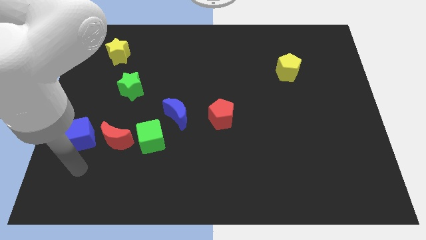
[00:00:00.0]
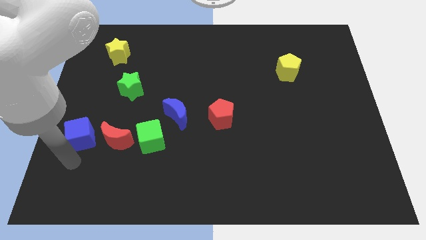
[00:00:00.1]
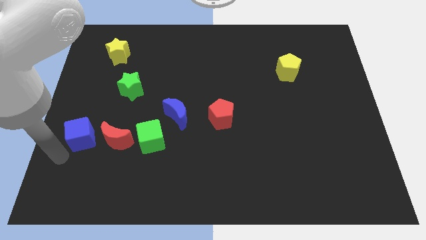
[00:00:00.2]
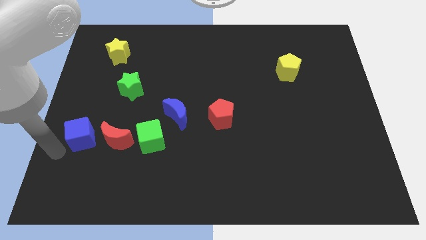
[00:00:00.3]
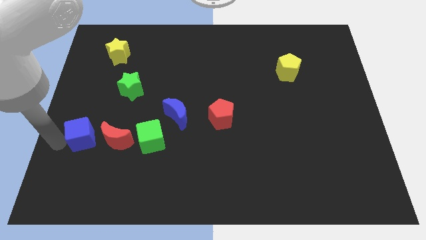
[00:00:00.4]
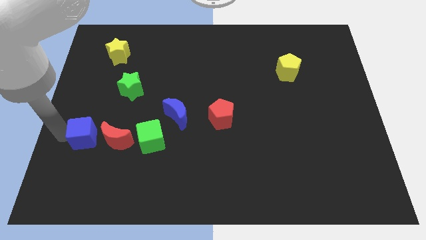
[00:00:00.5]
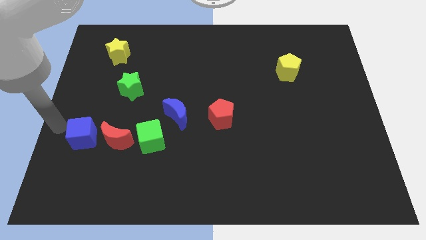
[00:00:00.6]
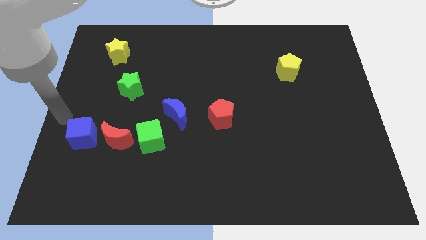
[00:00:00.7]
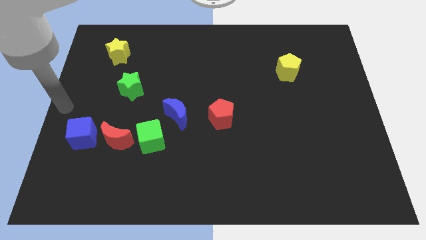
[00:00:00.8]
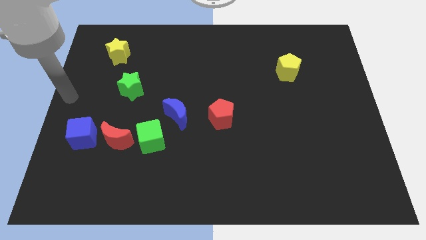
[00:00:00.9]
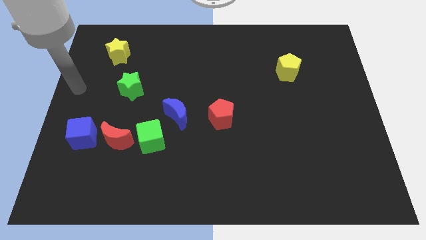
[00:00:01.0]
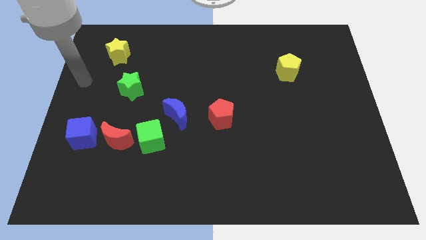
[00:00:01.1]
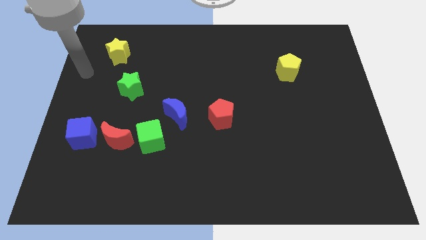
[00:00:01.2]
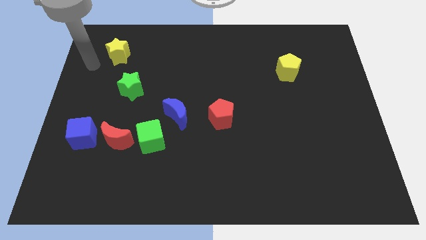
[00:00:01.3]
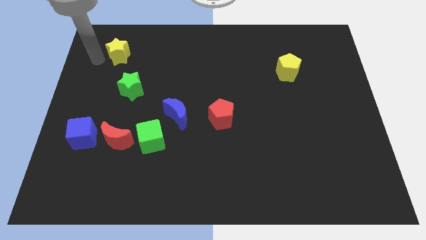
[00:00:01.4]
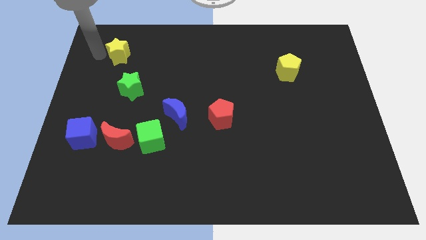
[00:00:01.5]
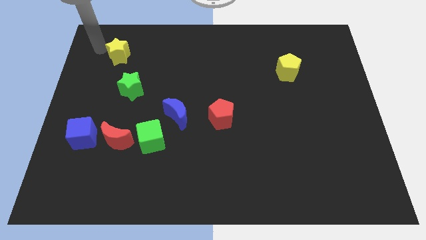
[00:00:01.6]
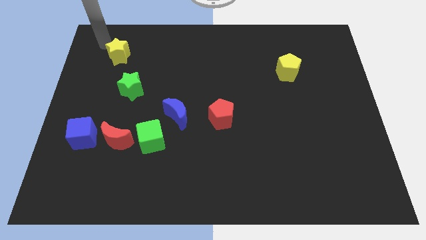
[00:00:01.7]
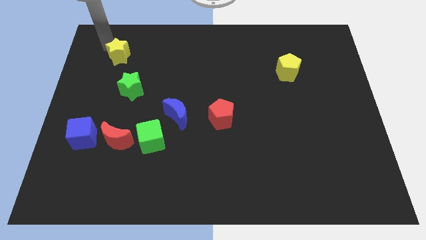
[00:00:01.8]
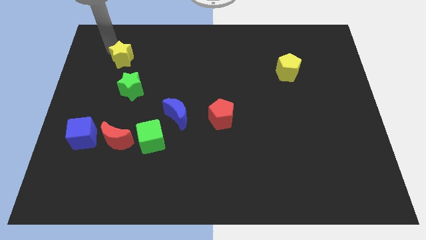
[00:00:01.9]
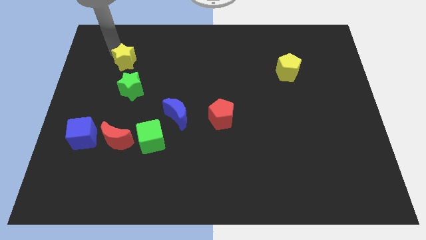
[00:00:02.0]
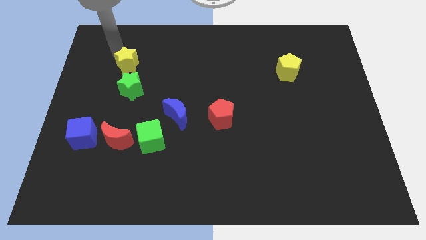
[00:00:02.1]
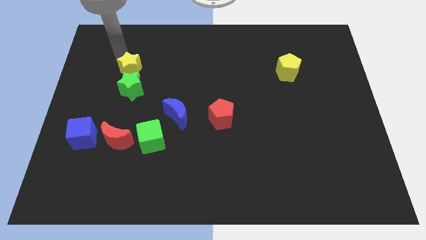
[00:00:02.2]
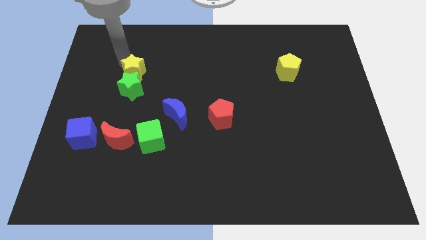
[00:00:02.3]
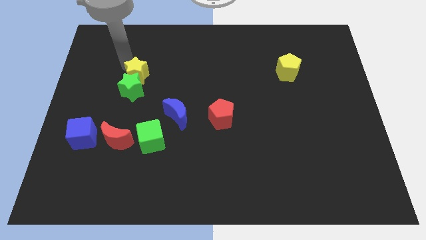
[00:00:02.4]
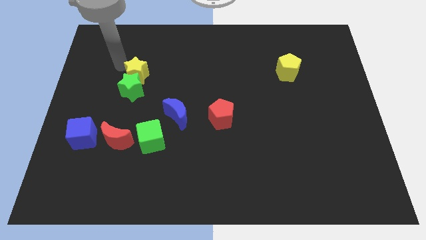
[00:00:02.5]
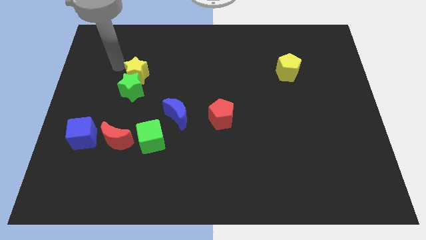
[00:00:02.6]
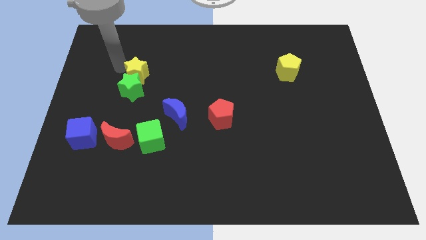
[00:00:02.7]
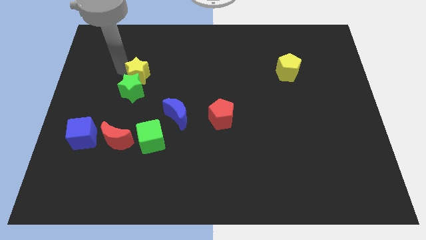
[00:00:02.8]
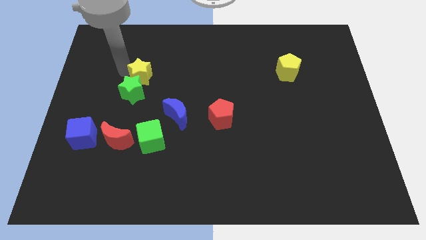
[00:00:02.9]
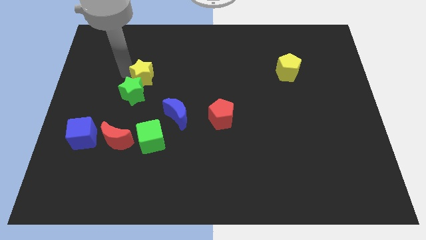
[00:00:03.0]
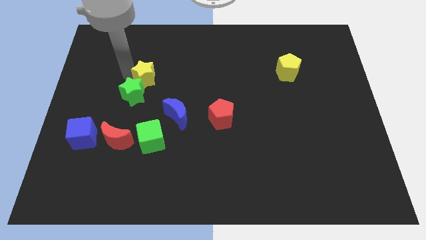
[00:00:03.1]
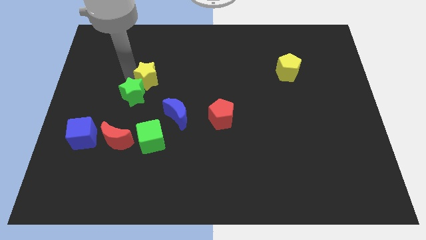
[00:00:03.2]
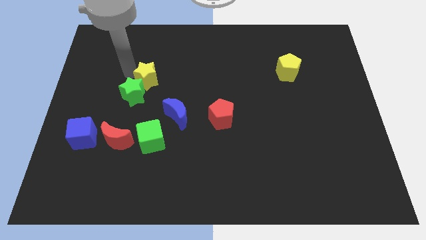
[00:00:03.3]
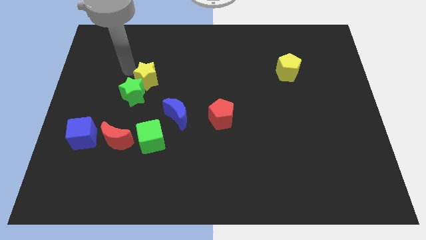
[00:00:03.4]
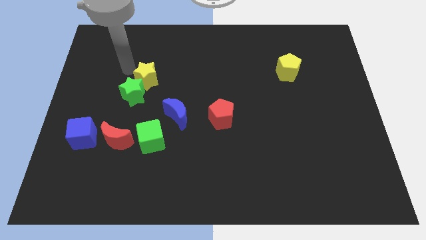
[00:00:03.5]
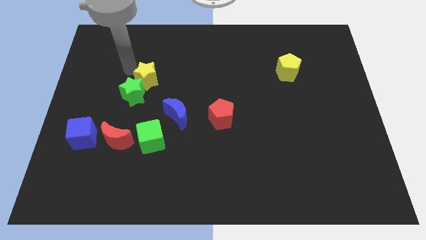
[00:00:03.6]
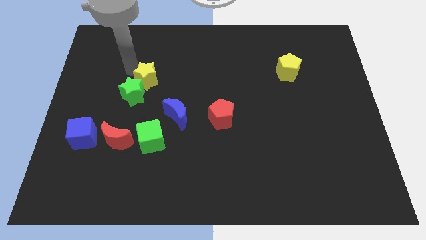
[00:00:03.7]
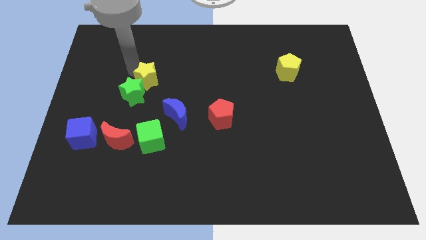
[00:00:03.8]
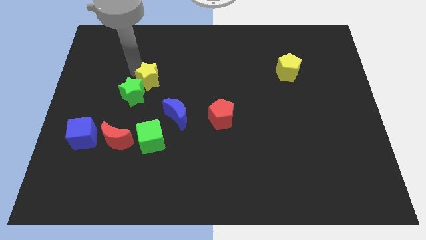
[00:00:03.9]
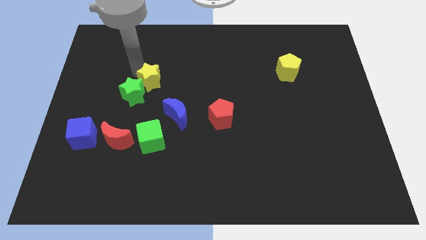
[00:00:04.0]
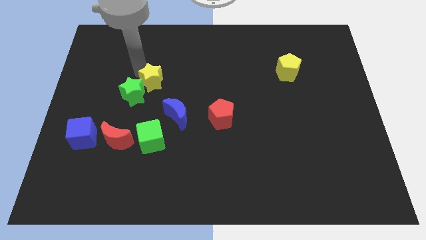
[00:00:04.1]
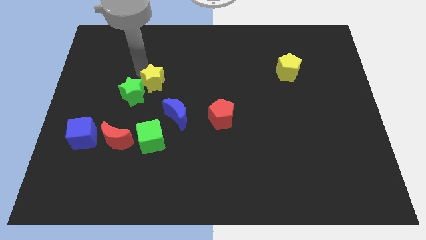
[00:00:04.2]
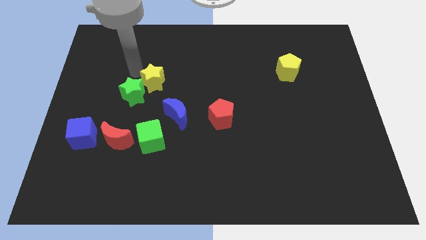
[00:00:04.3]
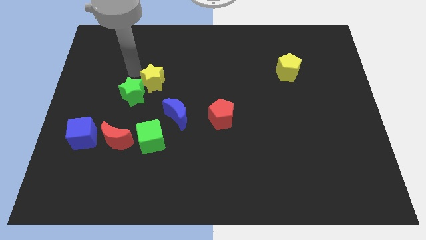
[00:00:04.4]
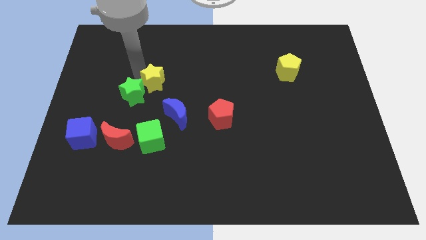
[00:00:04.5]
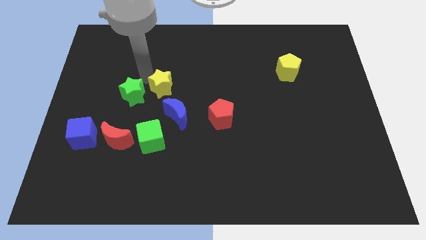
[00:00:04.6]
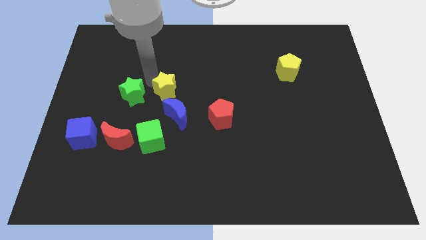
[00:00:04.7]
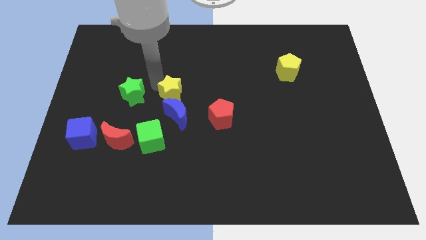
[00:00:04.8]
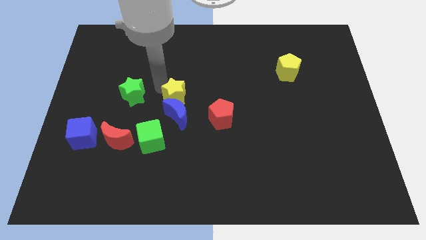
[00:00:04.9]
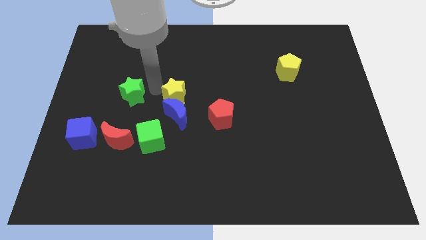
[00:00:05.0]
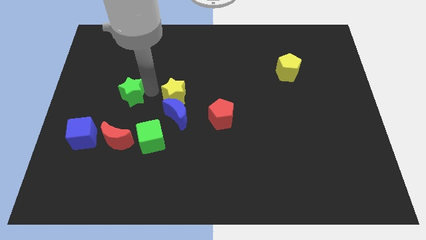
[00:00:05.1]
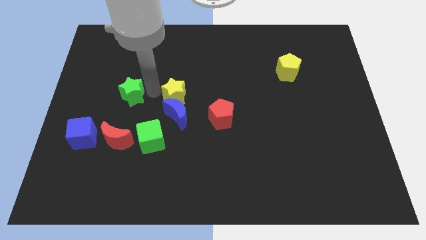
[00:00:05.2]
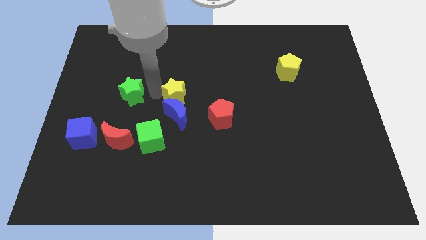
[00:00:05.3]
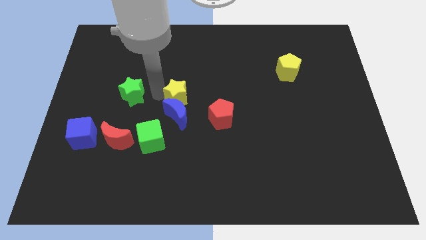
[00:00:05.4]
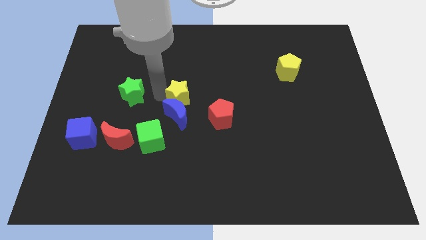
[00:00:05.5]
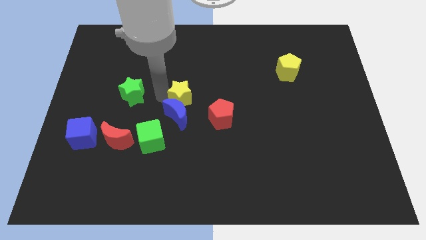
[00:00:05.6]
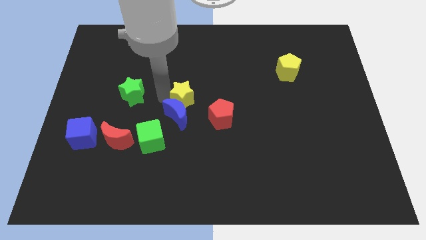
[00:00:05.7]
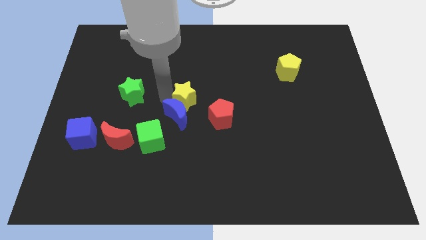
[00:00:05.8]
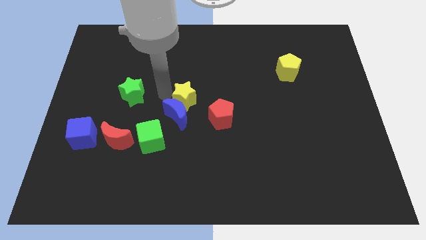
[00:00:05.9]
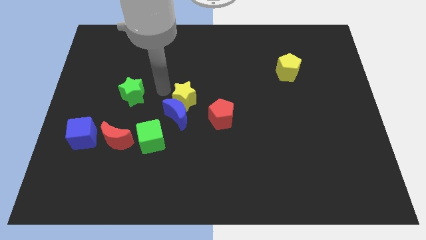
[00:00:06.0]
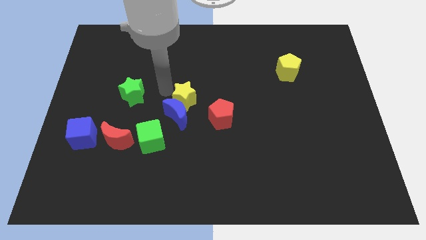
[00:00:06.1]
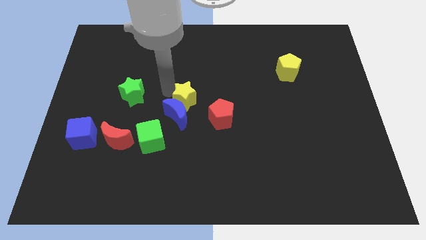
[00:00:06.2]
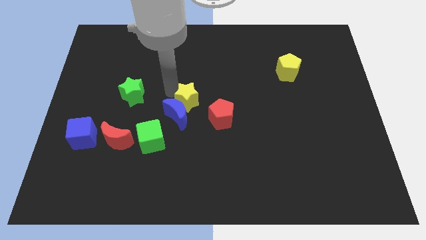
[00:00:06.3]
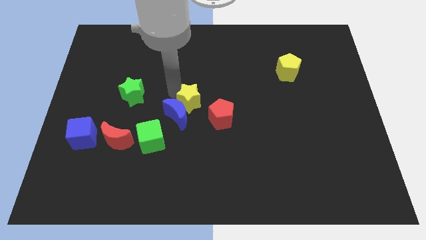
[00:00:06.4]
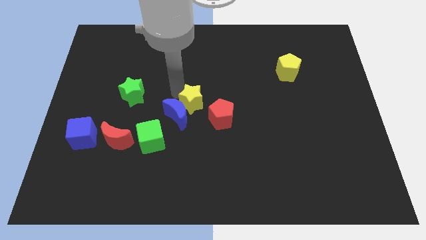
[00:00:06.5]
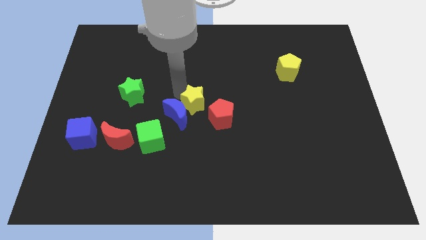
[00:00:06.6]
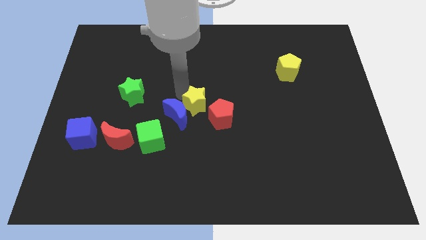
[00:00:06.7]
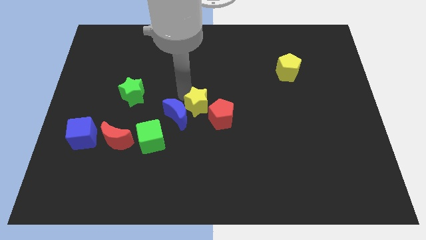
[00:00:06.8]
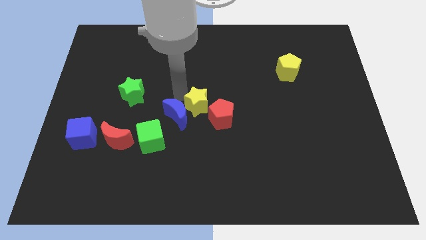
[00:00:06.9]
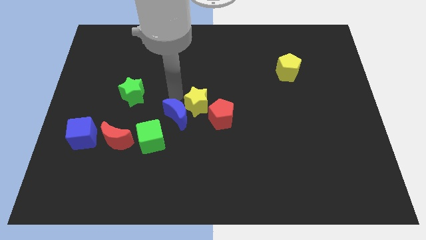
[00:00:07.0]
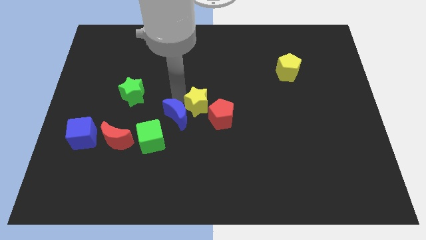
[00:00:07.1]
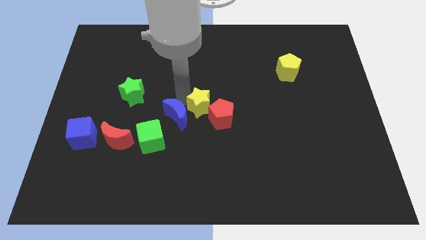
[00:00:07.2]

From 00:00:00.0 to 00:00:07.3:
put the yellow star to the red pentagon
